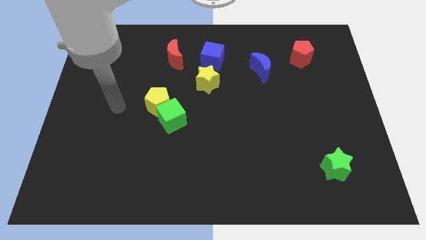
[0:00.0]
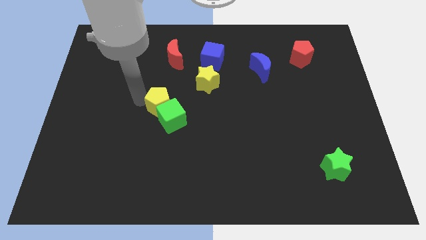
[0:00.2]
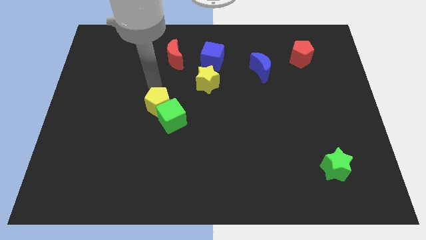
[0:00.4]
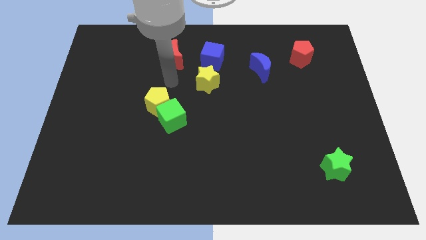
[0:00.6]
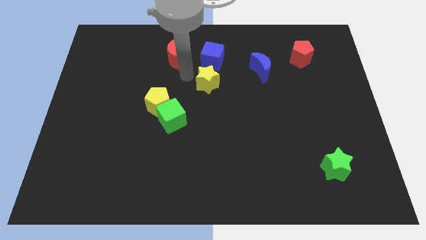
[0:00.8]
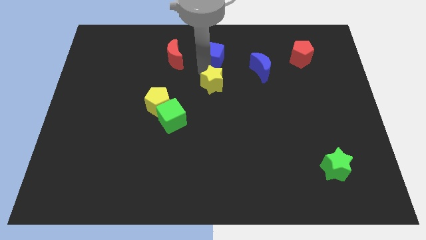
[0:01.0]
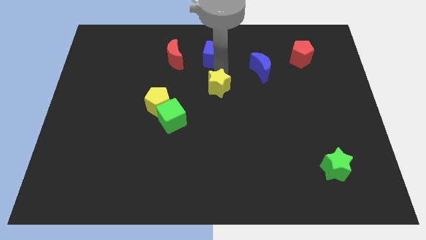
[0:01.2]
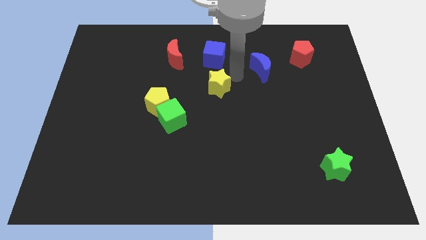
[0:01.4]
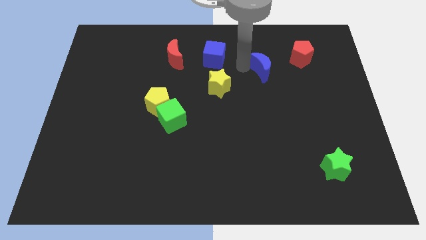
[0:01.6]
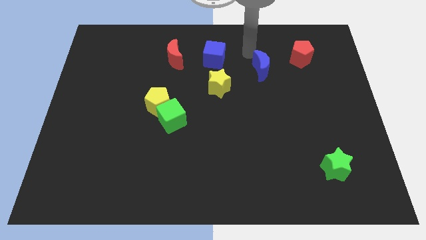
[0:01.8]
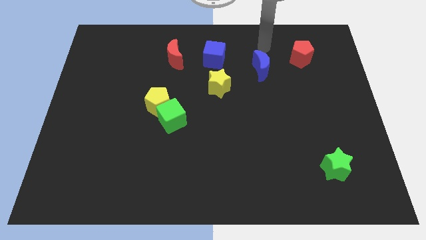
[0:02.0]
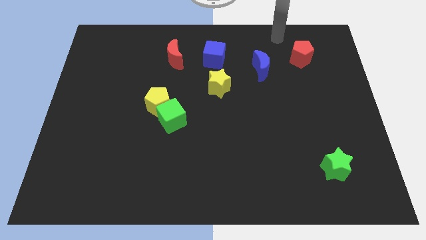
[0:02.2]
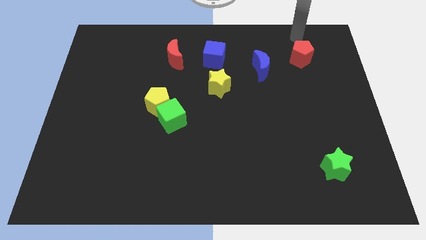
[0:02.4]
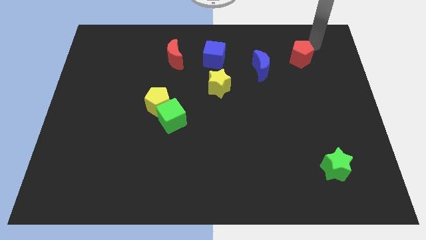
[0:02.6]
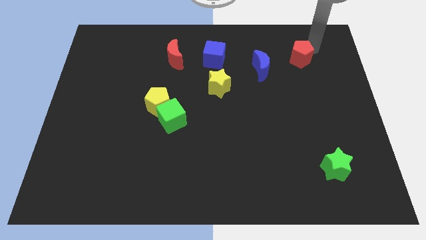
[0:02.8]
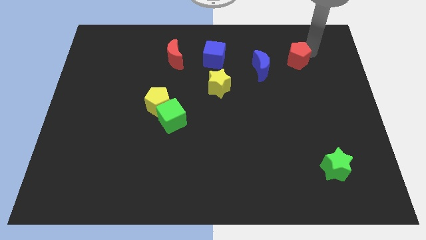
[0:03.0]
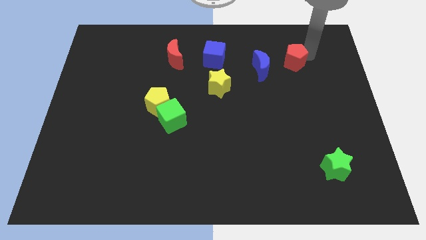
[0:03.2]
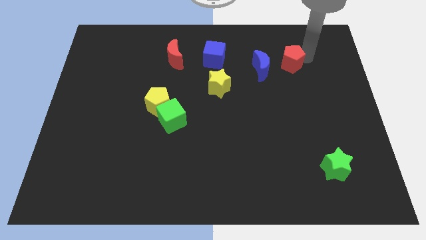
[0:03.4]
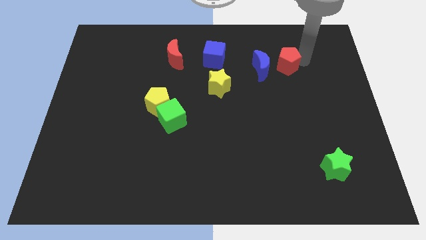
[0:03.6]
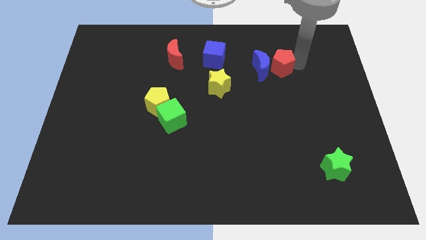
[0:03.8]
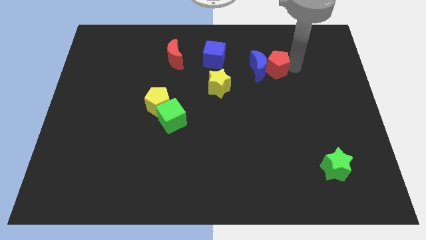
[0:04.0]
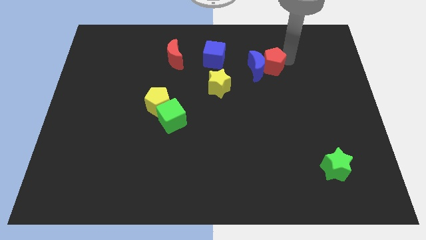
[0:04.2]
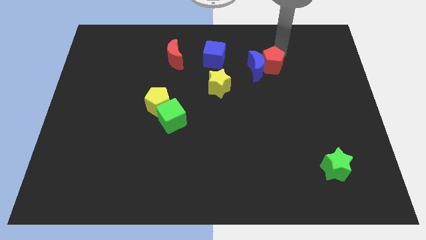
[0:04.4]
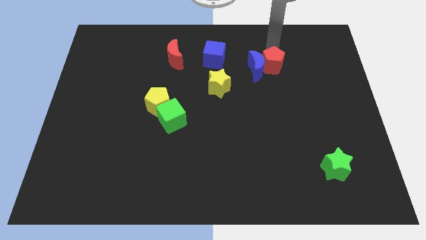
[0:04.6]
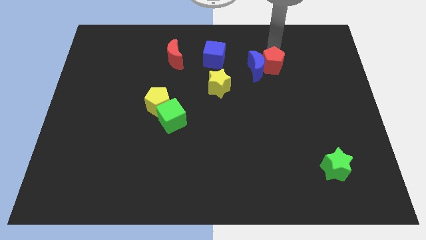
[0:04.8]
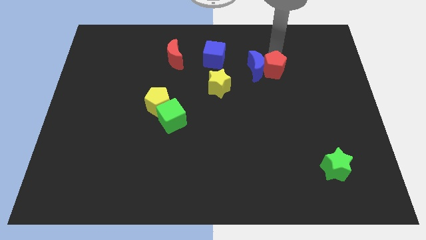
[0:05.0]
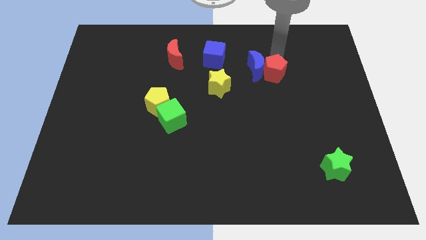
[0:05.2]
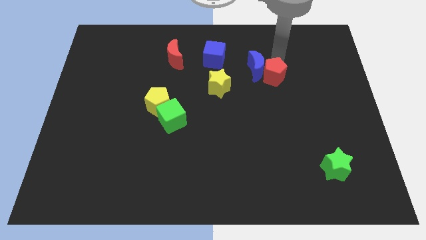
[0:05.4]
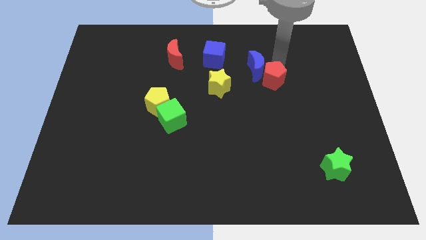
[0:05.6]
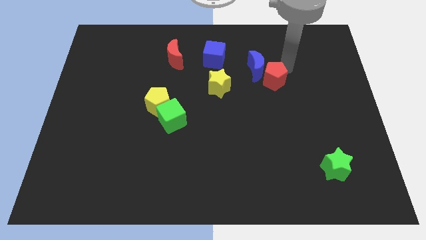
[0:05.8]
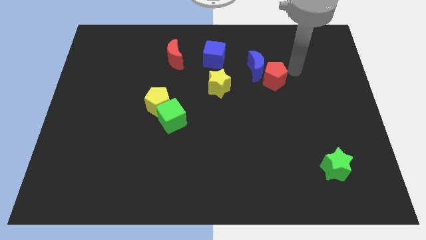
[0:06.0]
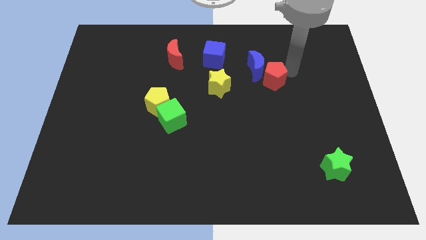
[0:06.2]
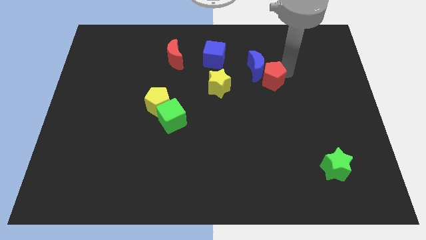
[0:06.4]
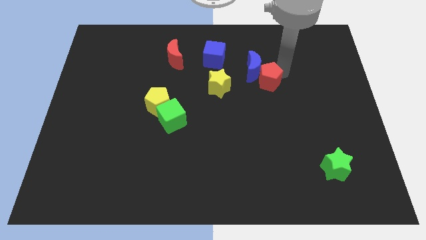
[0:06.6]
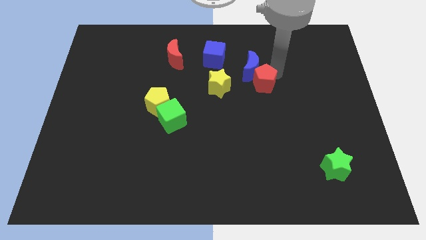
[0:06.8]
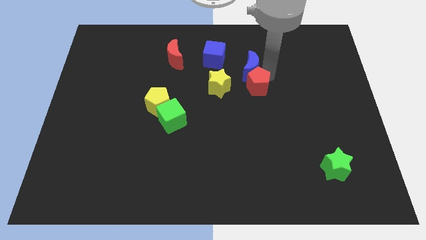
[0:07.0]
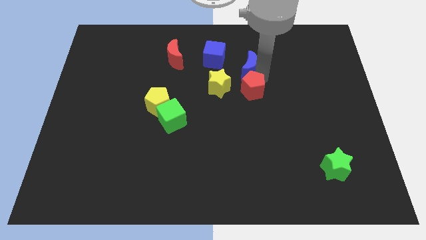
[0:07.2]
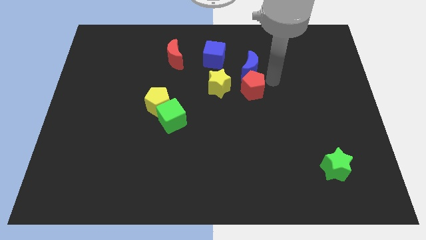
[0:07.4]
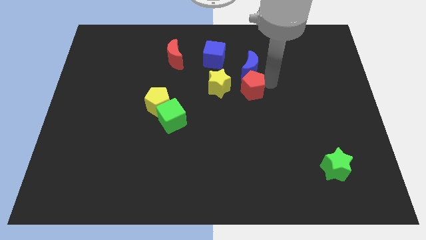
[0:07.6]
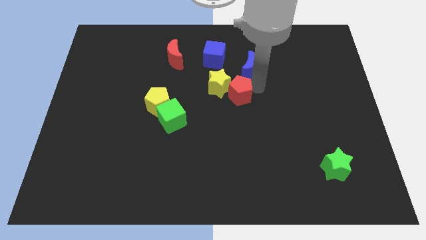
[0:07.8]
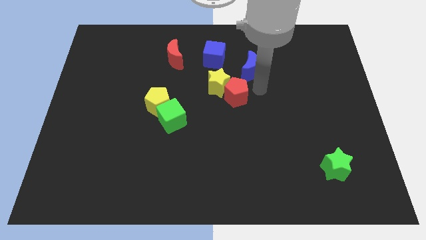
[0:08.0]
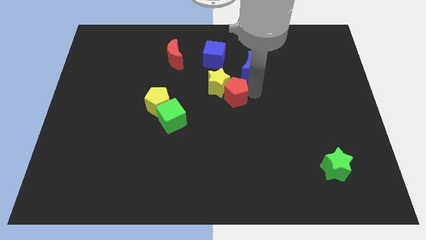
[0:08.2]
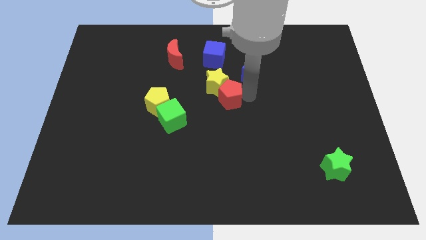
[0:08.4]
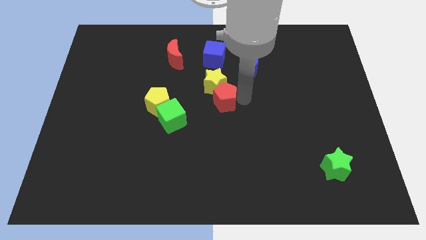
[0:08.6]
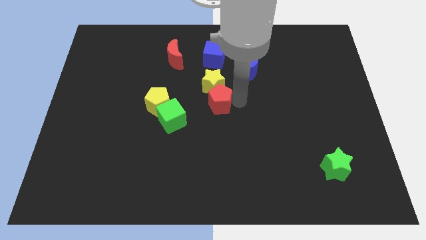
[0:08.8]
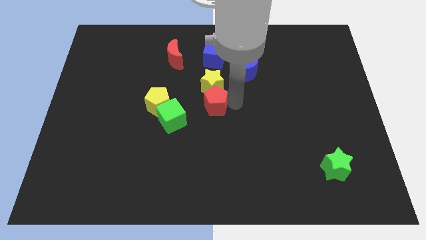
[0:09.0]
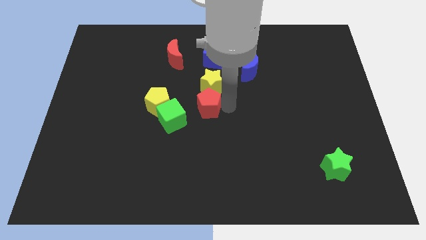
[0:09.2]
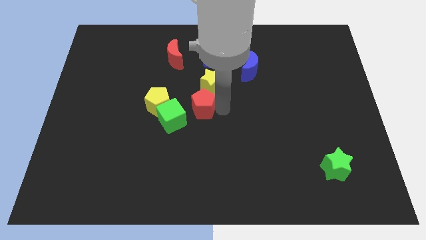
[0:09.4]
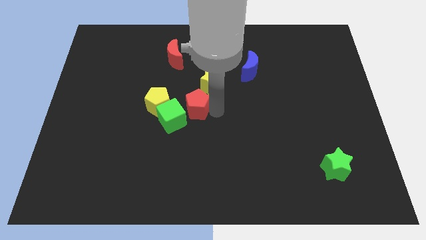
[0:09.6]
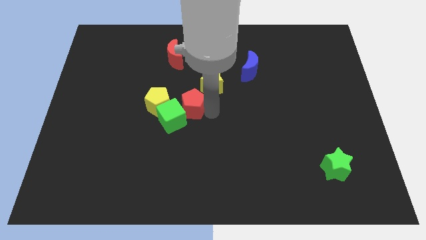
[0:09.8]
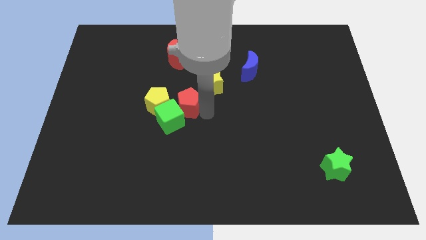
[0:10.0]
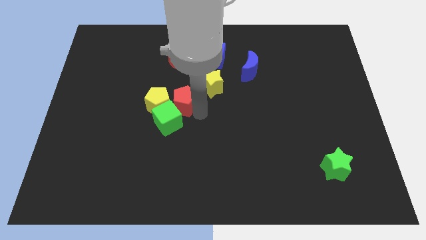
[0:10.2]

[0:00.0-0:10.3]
move the red pentagon towards the yellow pentagon

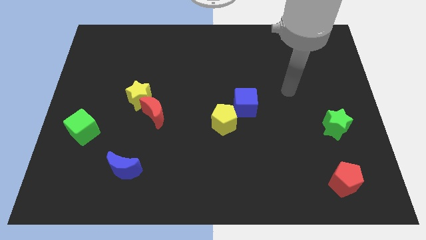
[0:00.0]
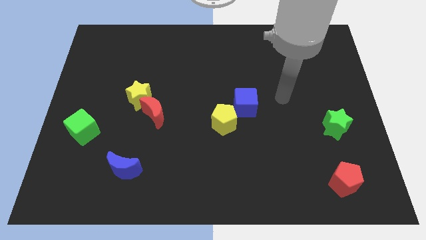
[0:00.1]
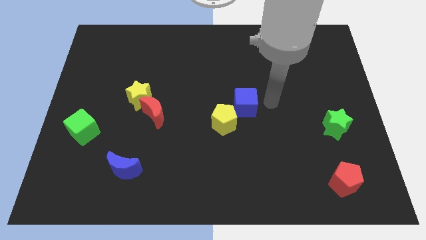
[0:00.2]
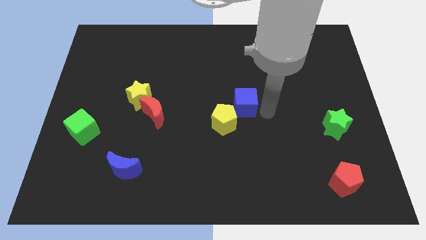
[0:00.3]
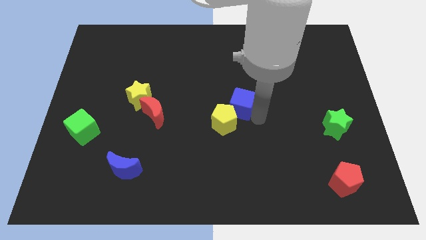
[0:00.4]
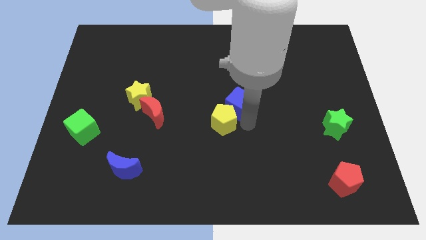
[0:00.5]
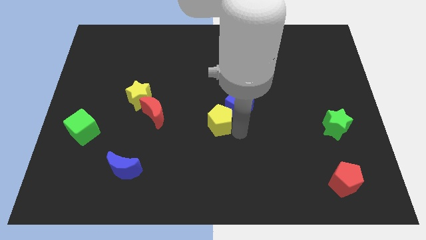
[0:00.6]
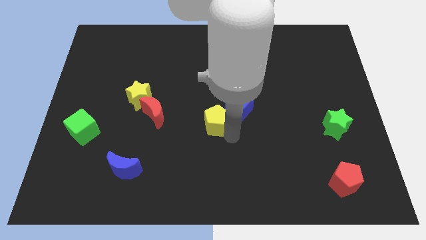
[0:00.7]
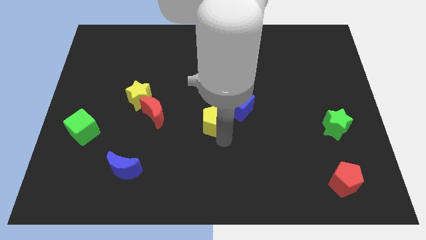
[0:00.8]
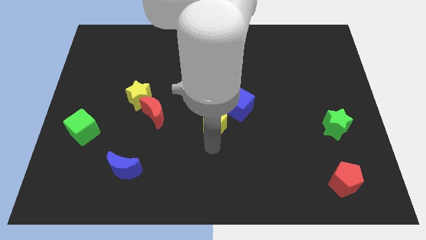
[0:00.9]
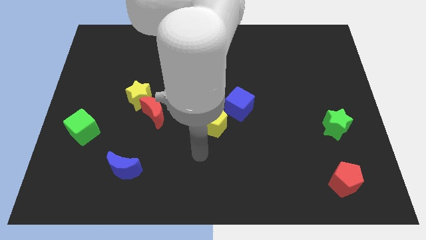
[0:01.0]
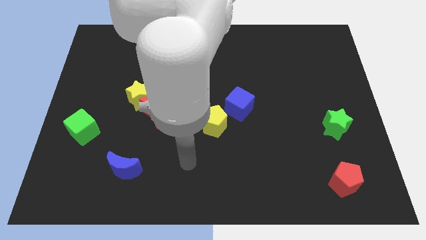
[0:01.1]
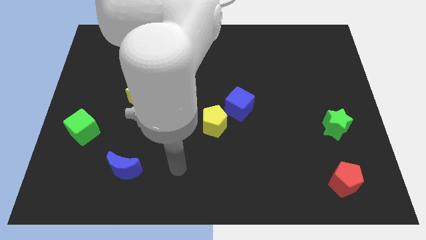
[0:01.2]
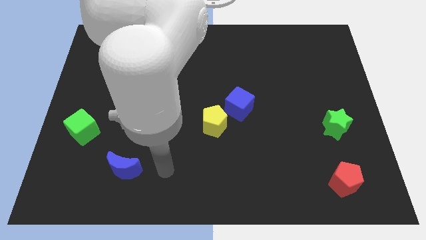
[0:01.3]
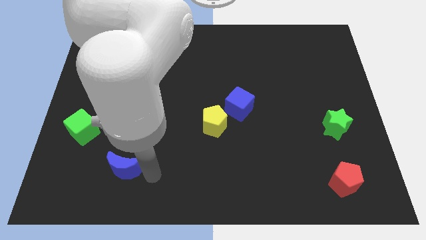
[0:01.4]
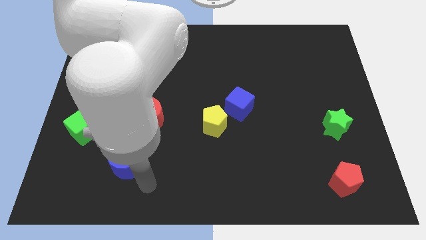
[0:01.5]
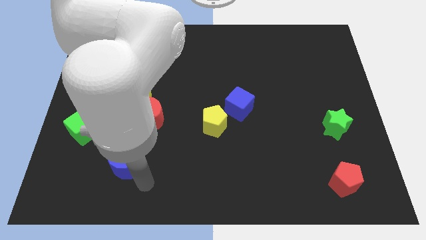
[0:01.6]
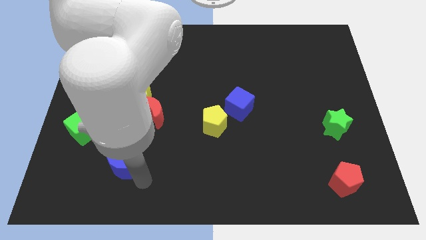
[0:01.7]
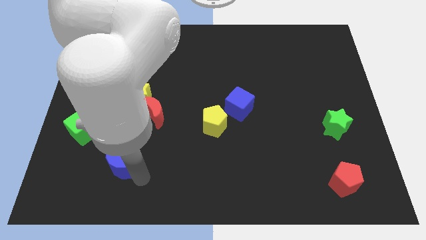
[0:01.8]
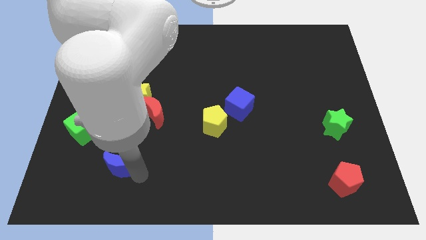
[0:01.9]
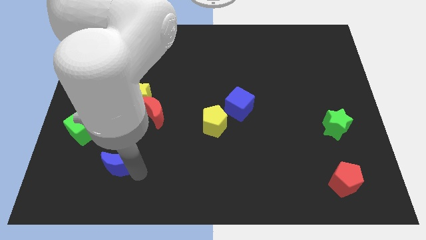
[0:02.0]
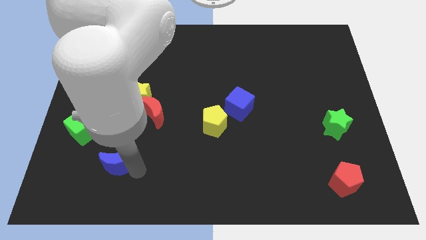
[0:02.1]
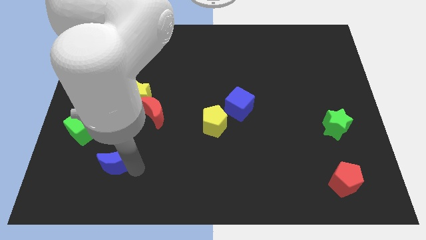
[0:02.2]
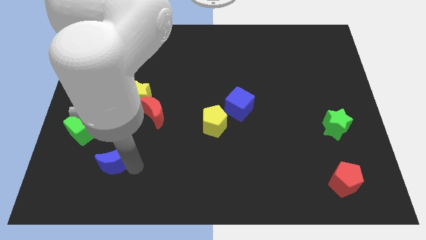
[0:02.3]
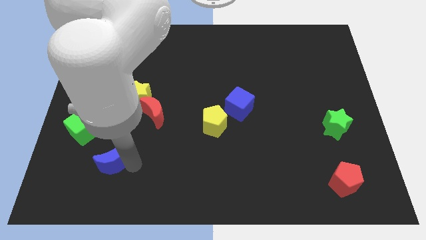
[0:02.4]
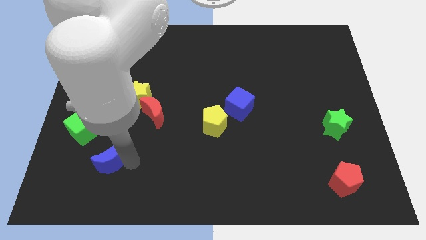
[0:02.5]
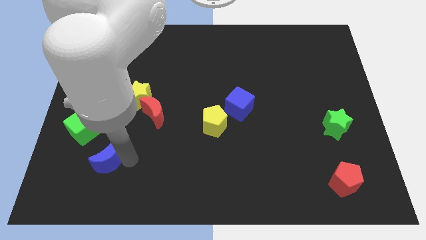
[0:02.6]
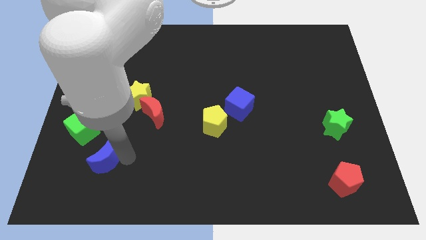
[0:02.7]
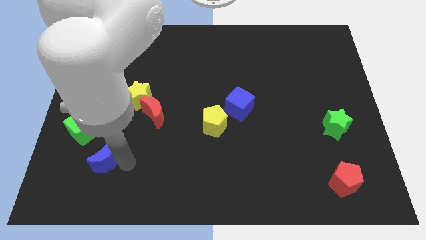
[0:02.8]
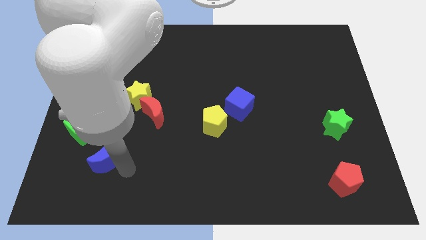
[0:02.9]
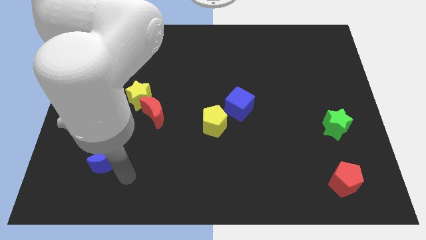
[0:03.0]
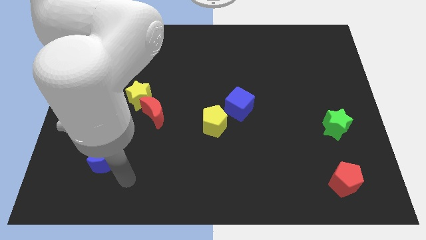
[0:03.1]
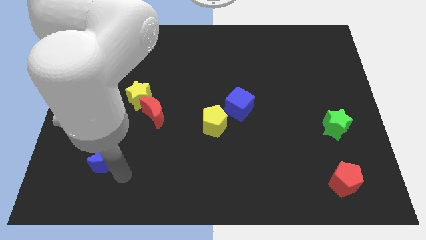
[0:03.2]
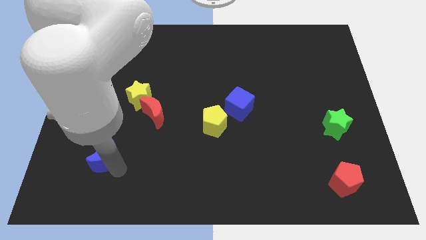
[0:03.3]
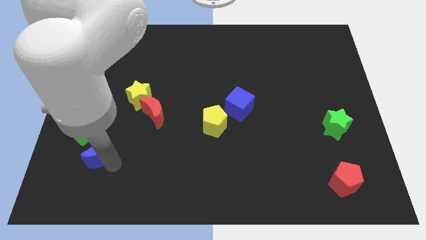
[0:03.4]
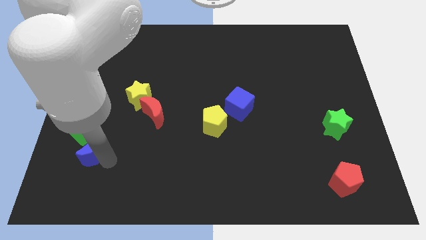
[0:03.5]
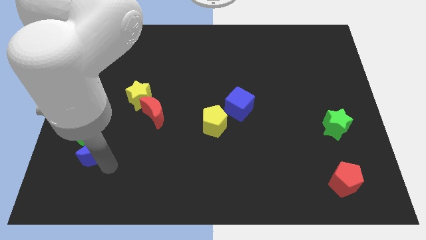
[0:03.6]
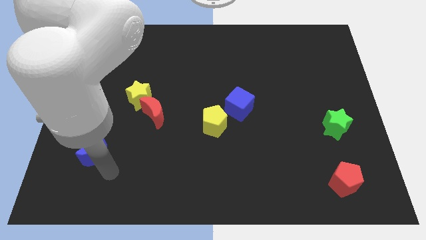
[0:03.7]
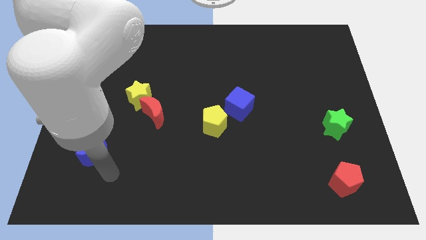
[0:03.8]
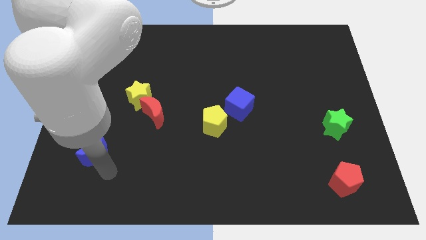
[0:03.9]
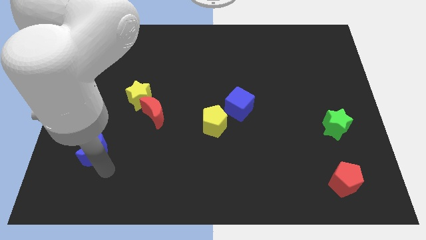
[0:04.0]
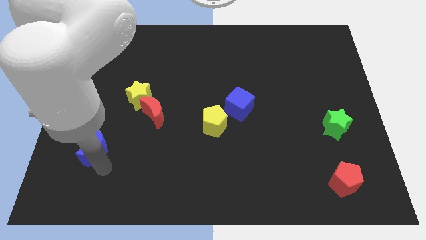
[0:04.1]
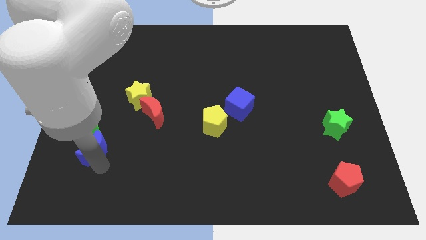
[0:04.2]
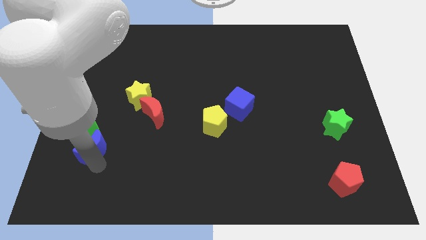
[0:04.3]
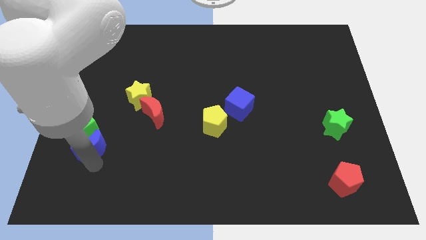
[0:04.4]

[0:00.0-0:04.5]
slide the blue moon next to the green cube
